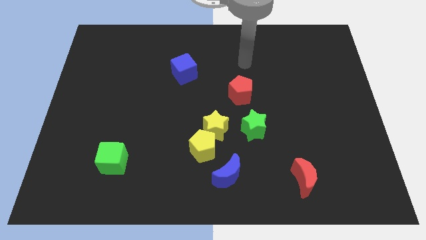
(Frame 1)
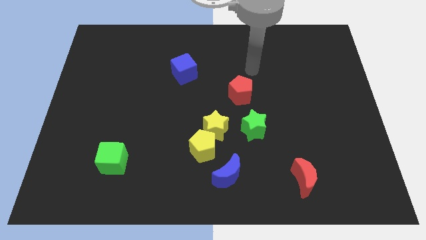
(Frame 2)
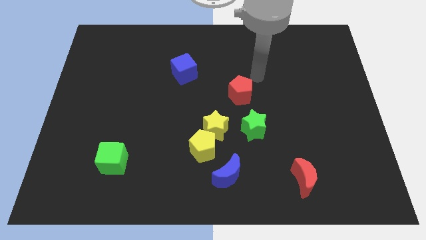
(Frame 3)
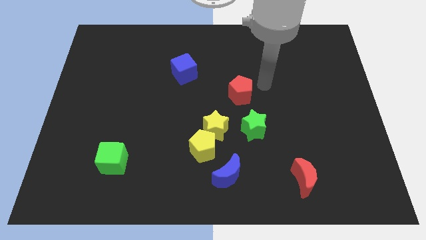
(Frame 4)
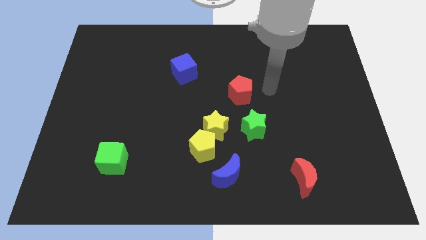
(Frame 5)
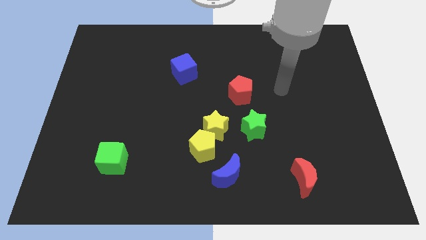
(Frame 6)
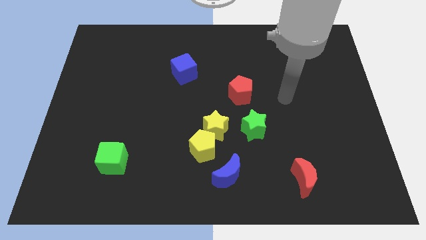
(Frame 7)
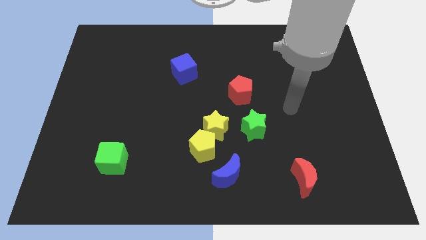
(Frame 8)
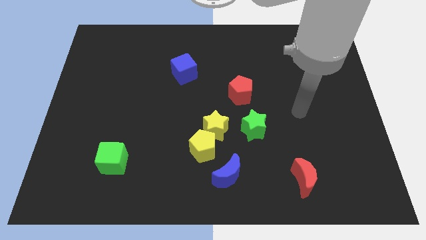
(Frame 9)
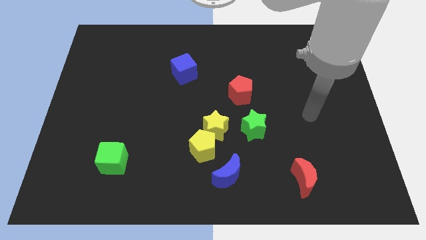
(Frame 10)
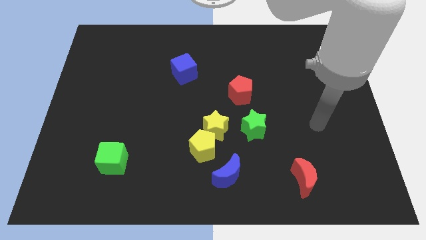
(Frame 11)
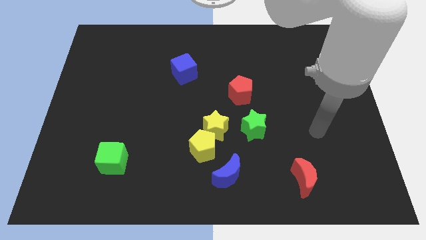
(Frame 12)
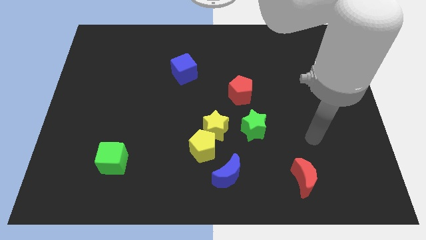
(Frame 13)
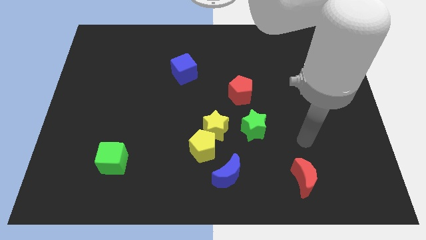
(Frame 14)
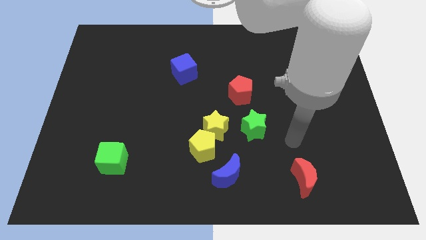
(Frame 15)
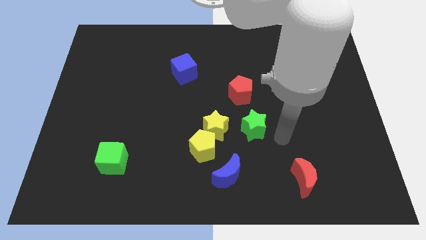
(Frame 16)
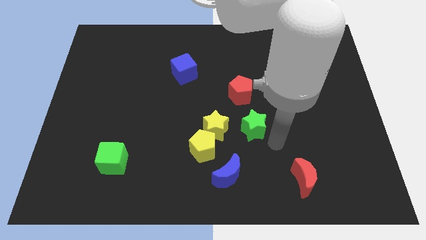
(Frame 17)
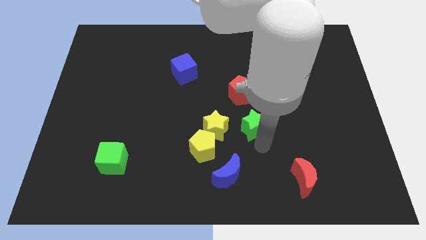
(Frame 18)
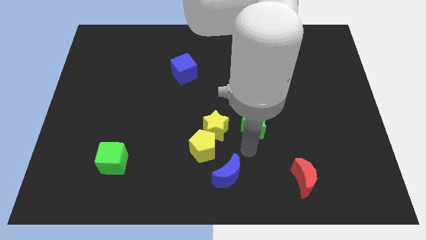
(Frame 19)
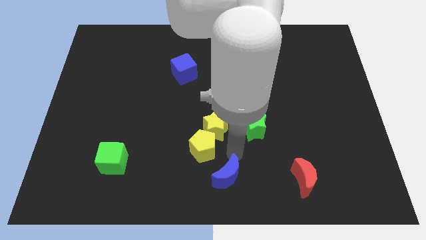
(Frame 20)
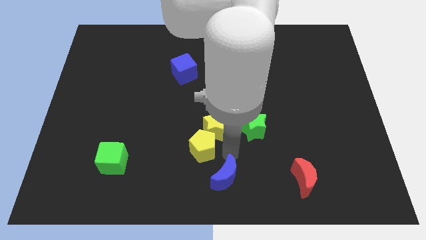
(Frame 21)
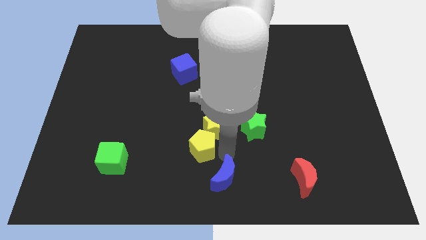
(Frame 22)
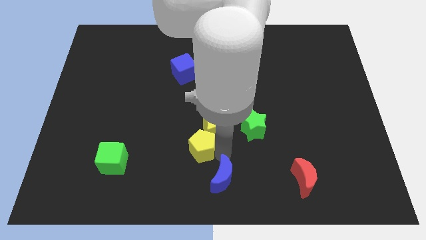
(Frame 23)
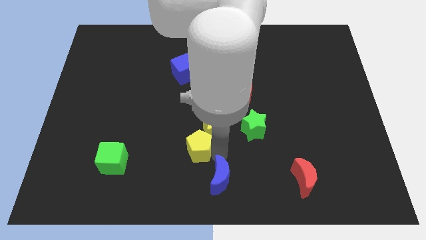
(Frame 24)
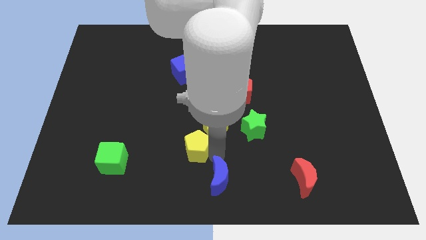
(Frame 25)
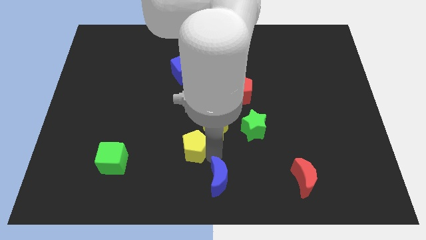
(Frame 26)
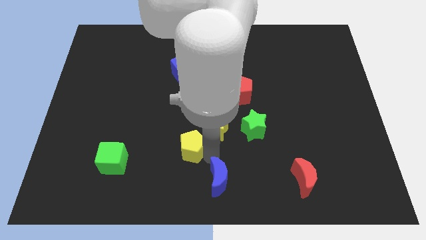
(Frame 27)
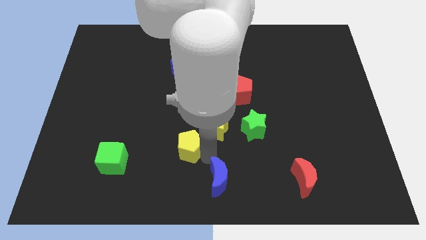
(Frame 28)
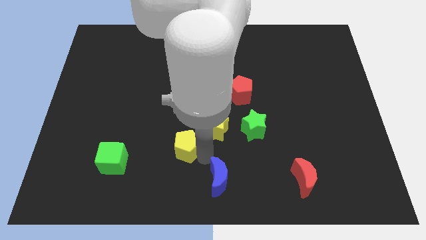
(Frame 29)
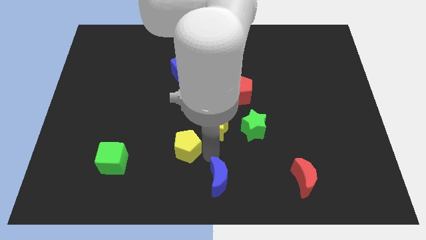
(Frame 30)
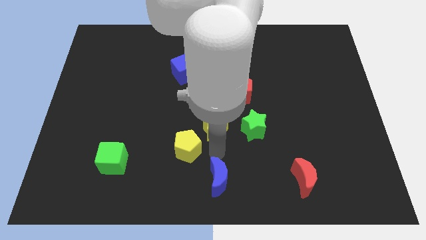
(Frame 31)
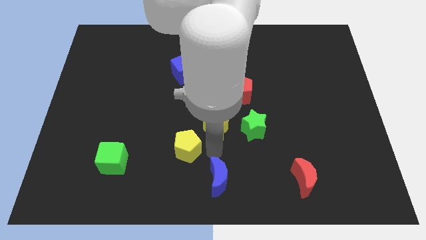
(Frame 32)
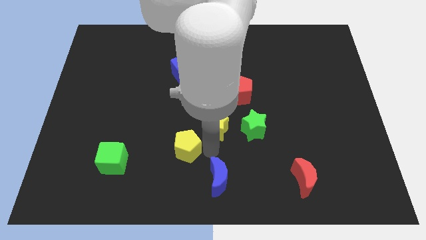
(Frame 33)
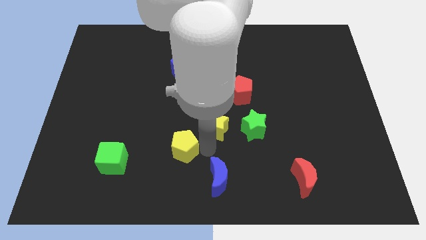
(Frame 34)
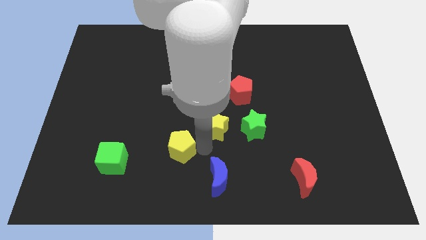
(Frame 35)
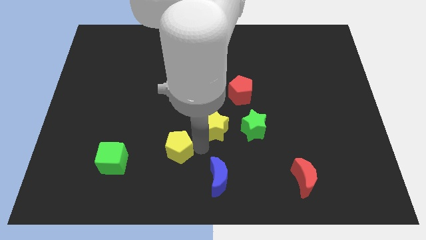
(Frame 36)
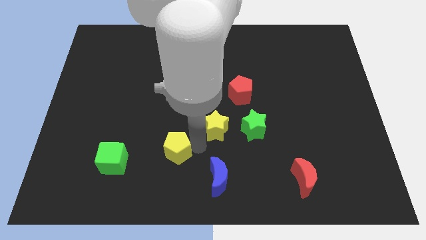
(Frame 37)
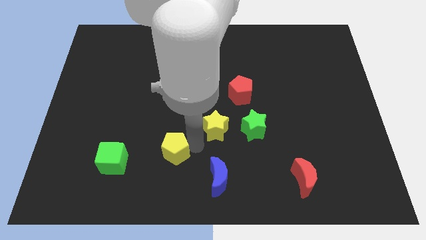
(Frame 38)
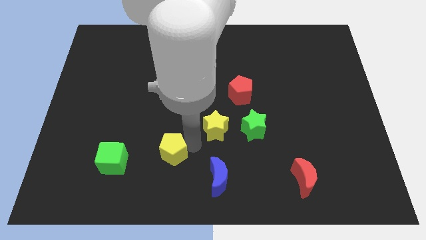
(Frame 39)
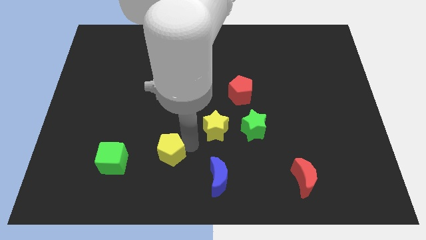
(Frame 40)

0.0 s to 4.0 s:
move the yellow pentagon away from the yellow star and blue moon

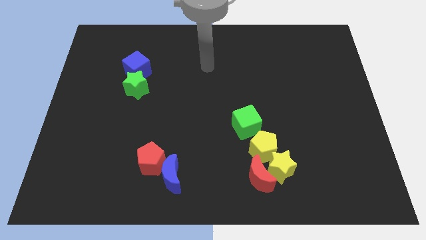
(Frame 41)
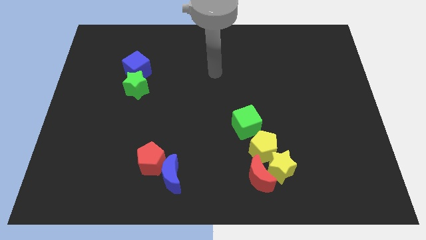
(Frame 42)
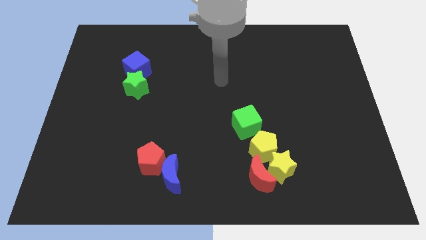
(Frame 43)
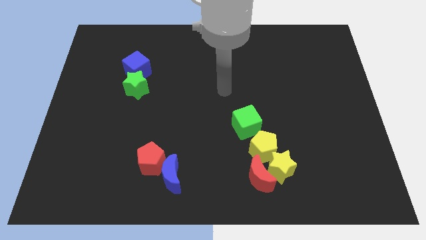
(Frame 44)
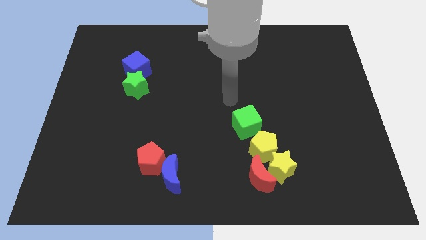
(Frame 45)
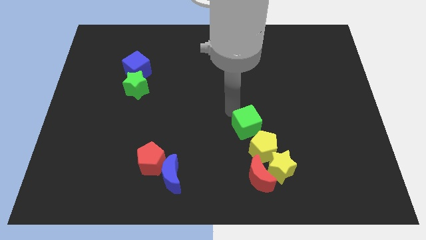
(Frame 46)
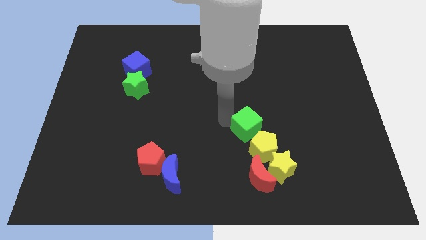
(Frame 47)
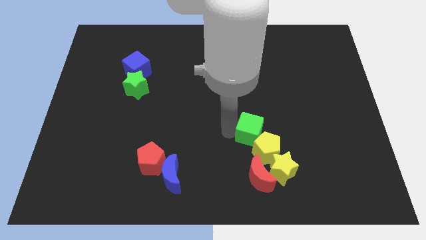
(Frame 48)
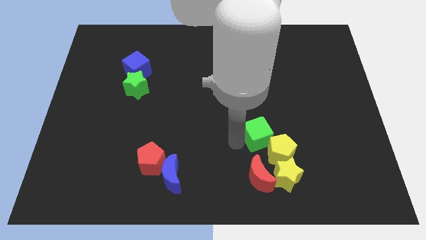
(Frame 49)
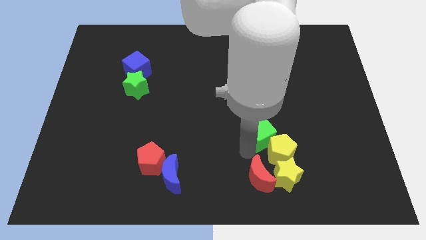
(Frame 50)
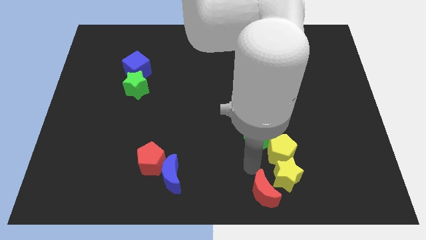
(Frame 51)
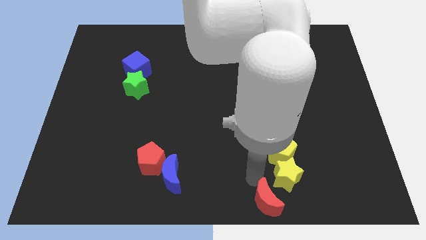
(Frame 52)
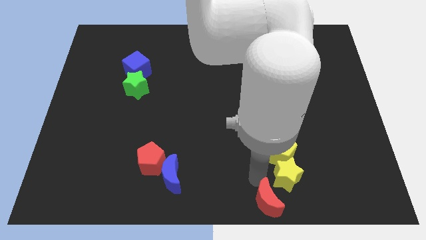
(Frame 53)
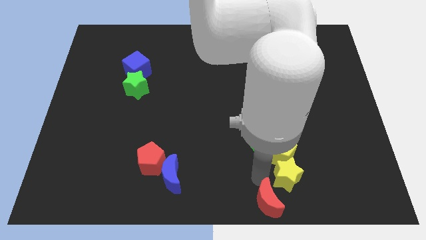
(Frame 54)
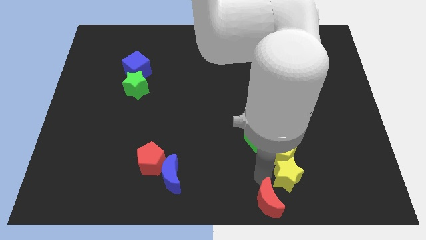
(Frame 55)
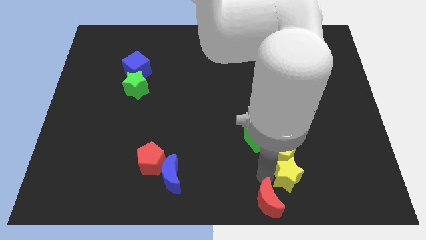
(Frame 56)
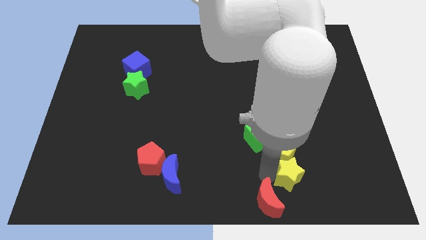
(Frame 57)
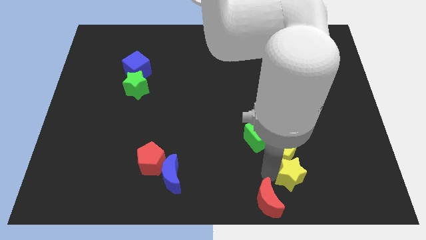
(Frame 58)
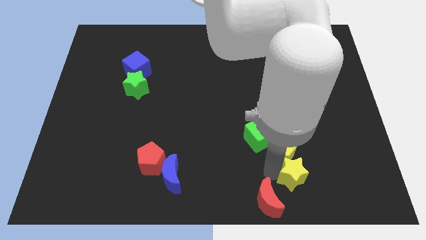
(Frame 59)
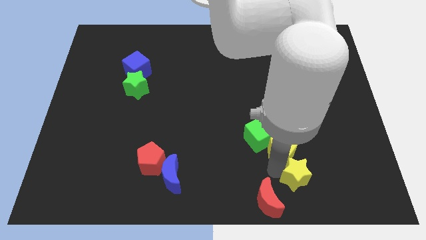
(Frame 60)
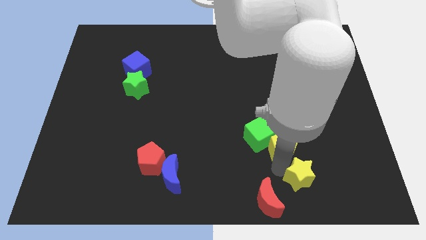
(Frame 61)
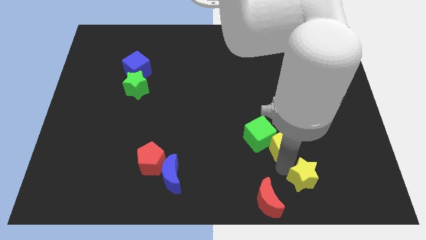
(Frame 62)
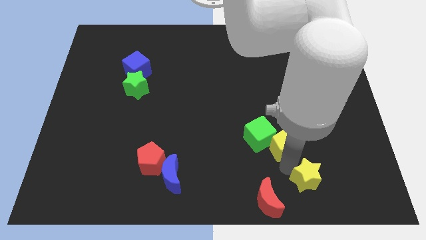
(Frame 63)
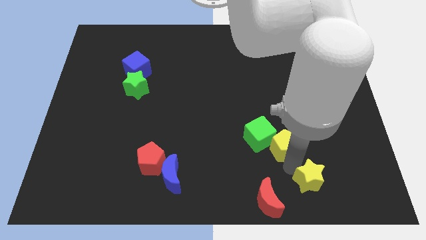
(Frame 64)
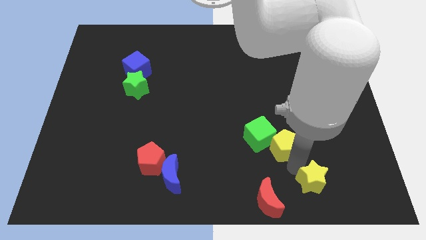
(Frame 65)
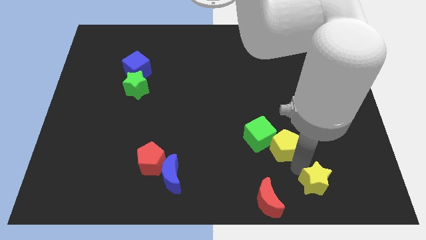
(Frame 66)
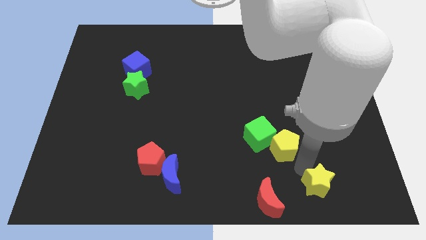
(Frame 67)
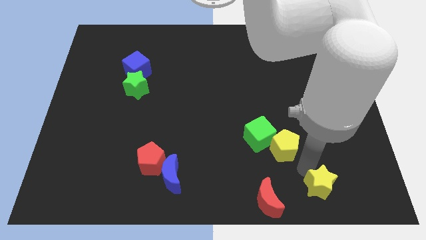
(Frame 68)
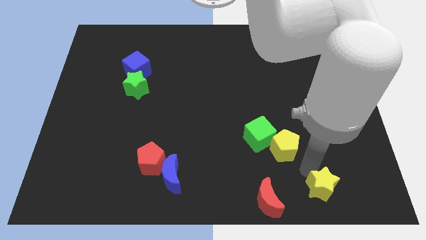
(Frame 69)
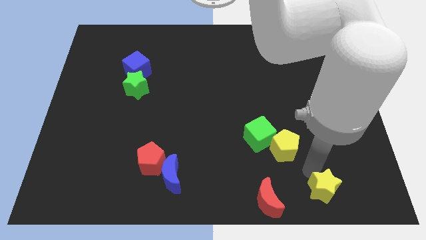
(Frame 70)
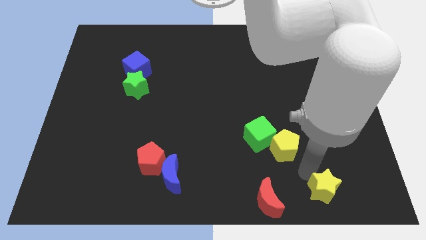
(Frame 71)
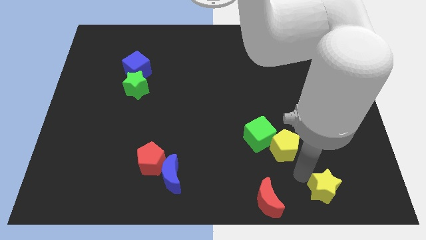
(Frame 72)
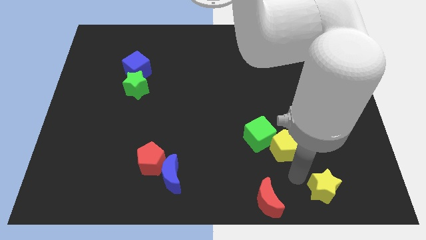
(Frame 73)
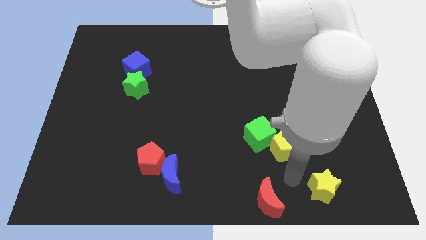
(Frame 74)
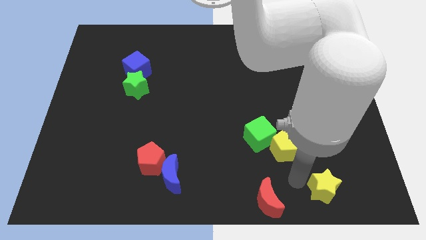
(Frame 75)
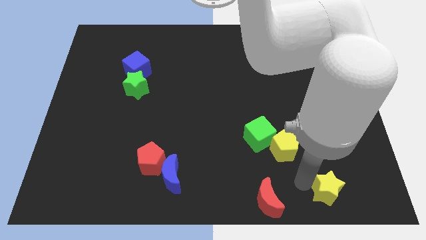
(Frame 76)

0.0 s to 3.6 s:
separate the yellow star from the red moon and yellow pentagon

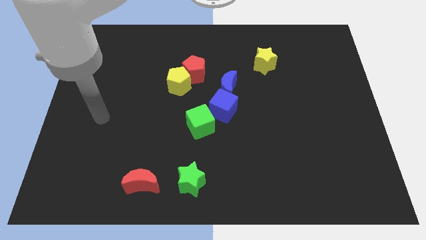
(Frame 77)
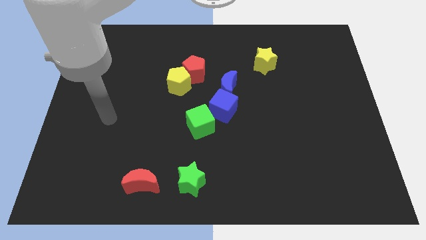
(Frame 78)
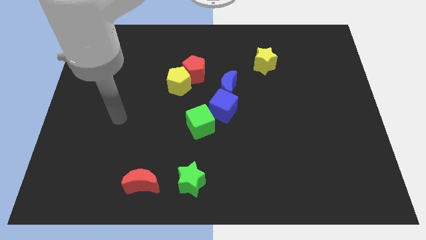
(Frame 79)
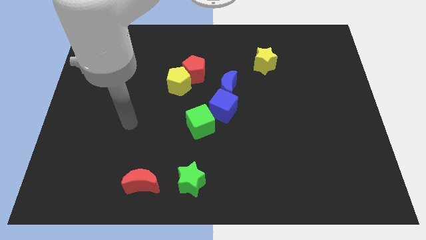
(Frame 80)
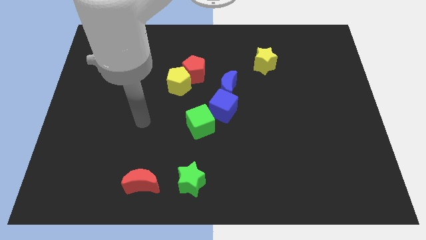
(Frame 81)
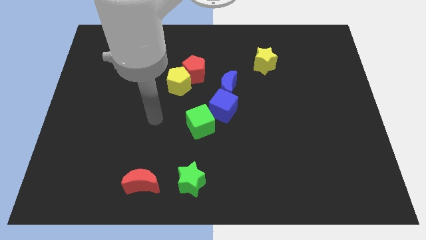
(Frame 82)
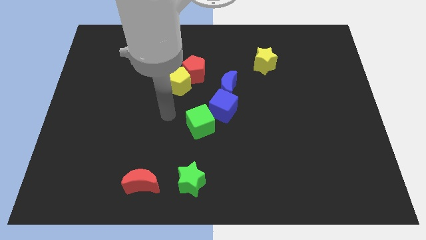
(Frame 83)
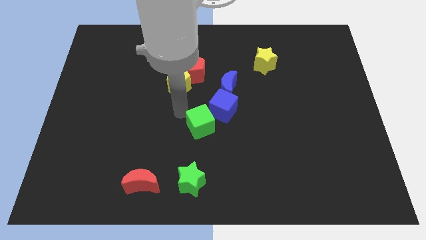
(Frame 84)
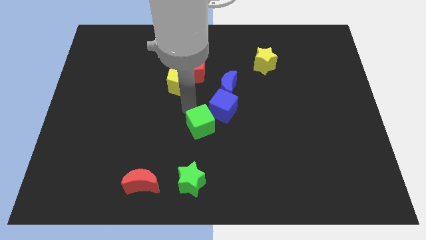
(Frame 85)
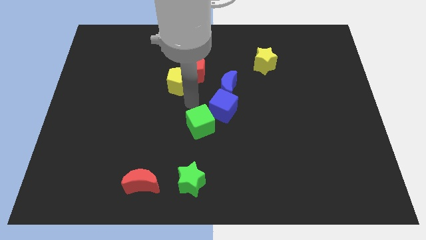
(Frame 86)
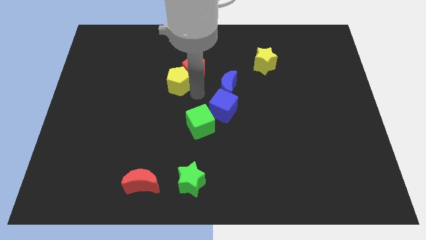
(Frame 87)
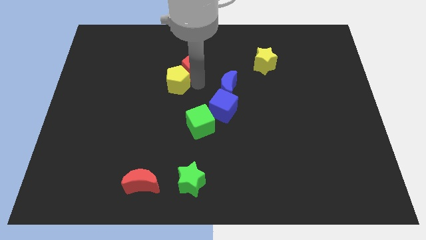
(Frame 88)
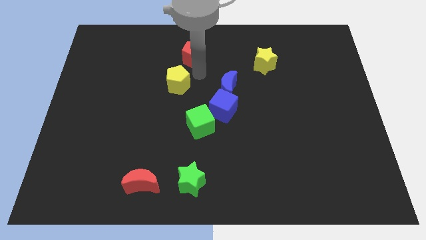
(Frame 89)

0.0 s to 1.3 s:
move the yellow pentagon away from the red pentagon

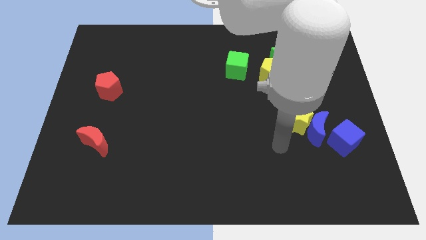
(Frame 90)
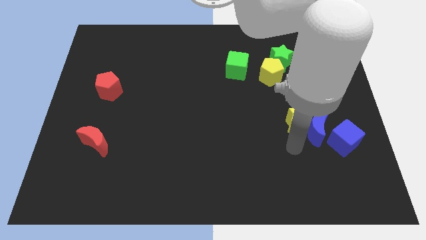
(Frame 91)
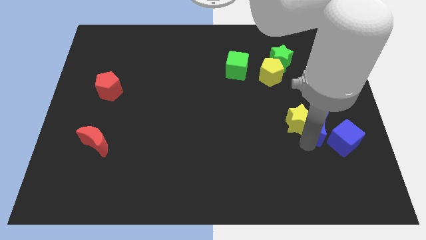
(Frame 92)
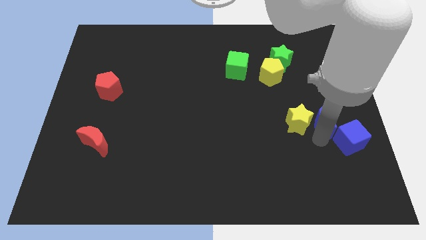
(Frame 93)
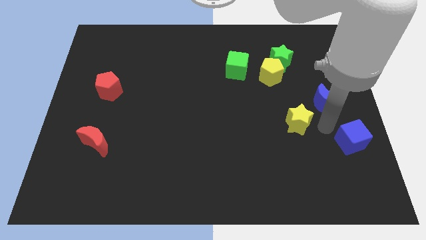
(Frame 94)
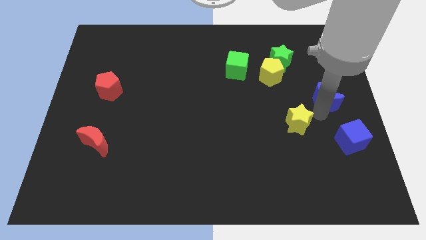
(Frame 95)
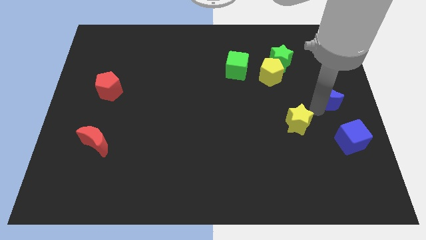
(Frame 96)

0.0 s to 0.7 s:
move the yellow star away from the blue moon
